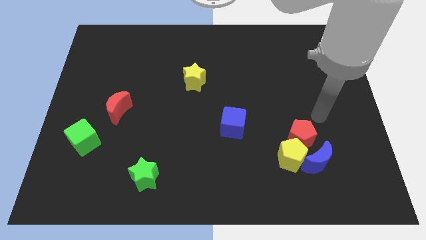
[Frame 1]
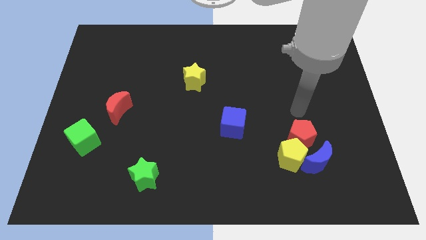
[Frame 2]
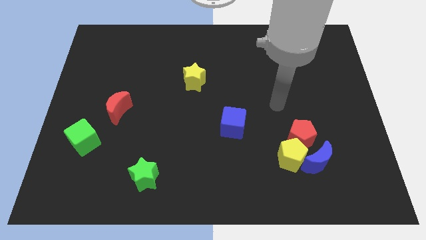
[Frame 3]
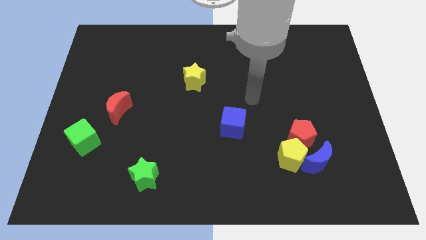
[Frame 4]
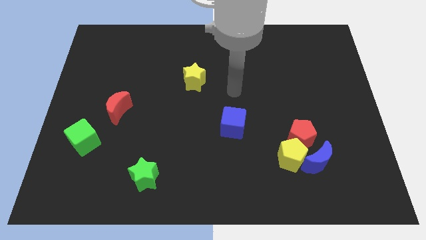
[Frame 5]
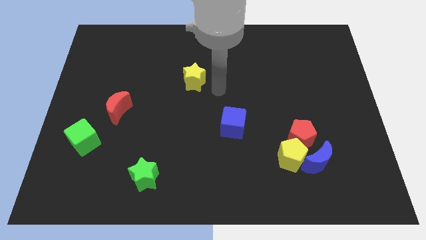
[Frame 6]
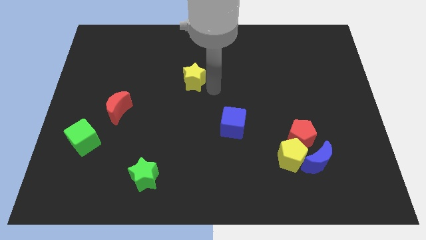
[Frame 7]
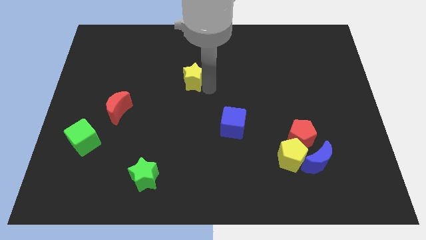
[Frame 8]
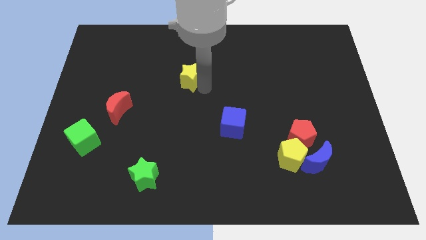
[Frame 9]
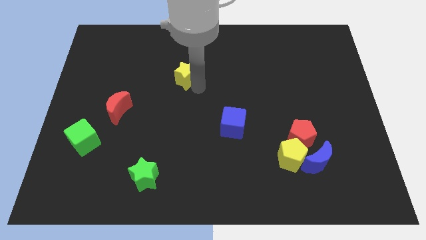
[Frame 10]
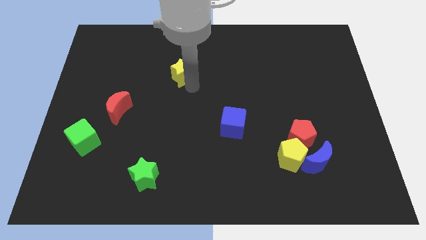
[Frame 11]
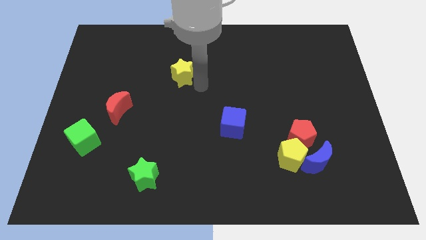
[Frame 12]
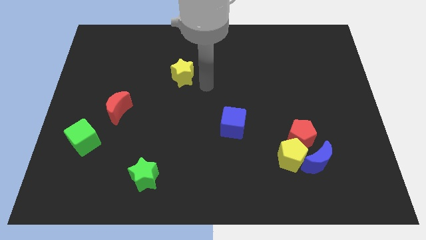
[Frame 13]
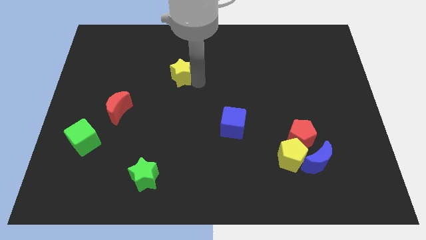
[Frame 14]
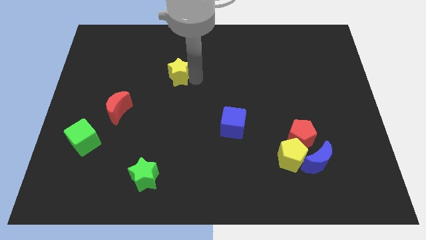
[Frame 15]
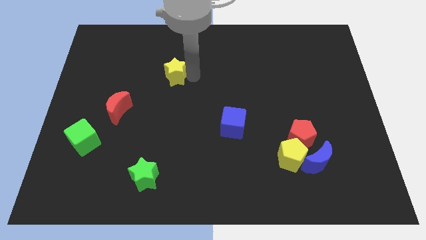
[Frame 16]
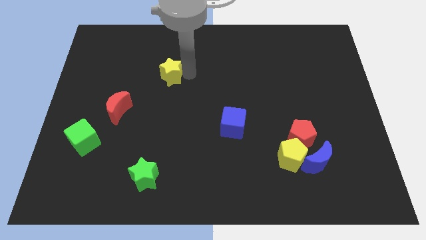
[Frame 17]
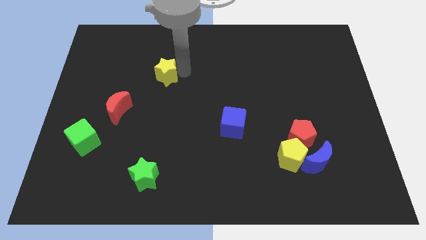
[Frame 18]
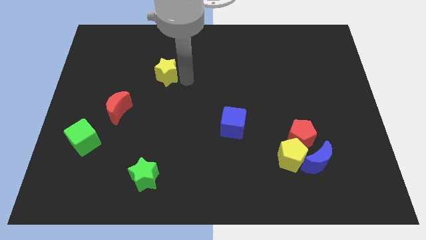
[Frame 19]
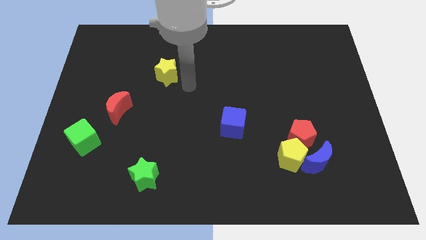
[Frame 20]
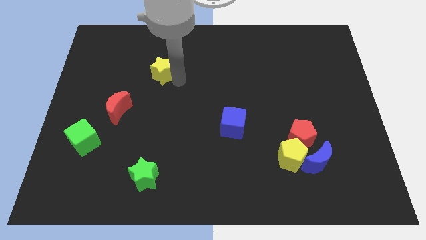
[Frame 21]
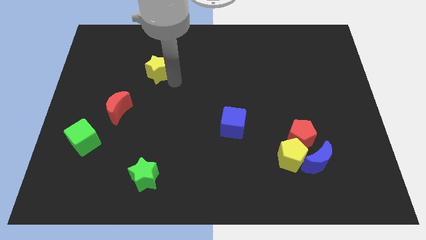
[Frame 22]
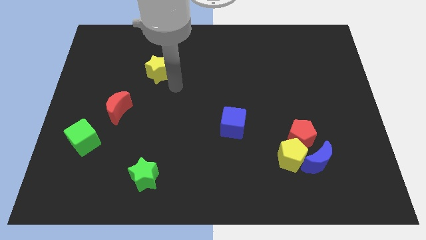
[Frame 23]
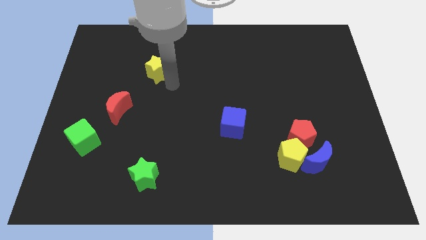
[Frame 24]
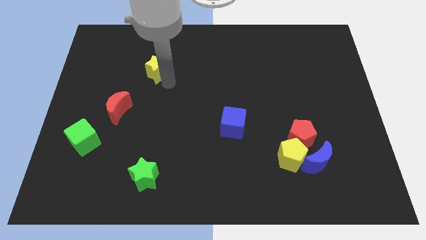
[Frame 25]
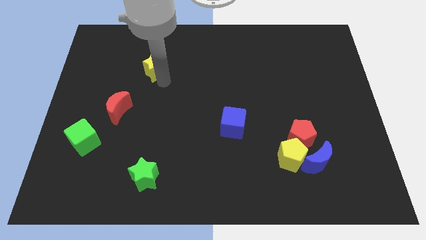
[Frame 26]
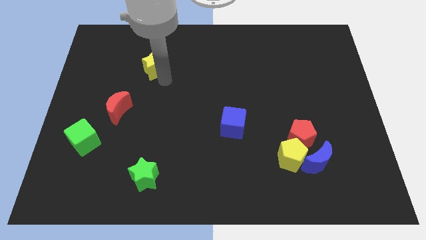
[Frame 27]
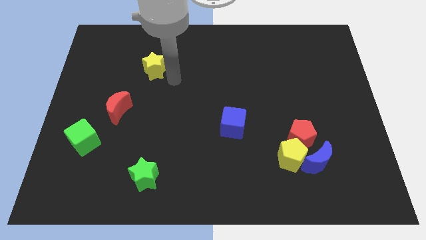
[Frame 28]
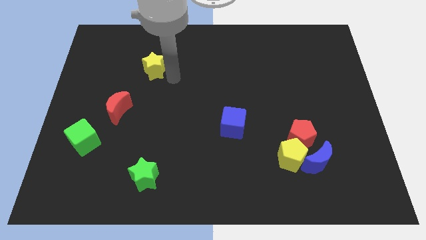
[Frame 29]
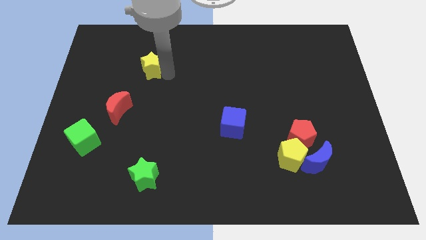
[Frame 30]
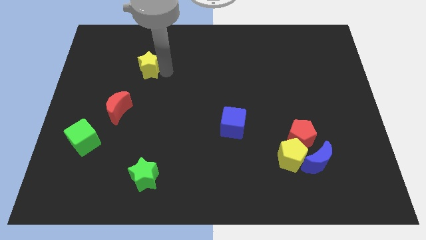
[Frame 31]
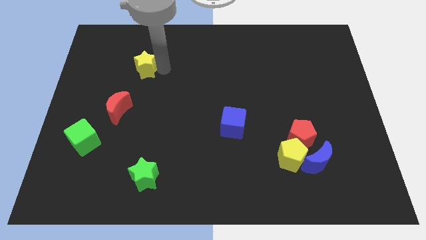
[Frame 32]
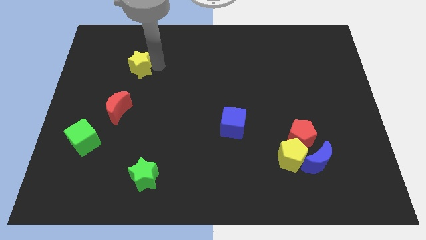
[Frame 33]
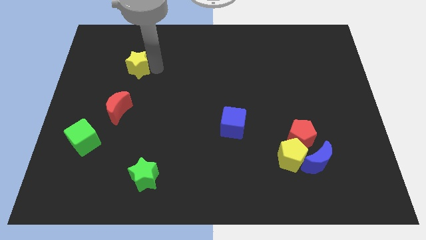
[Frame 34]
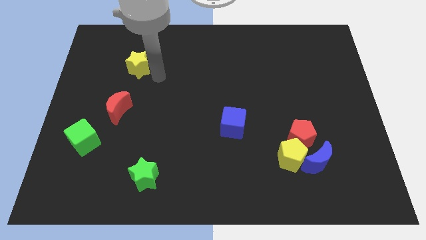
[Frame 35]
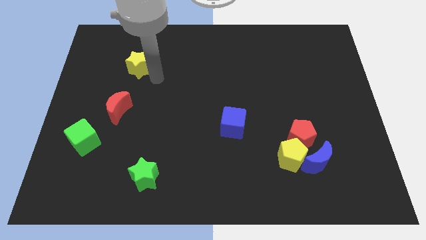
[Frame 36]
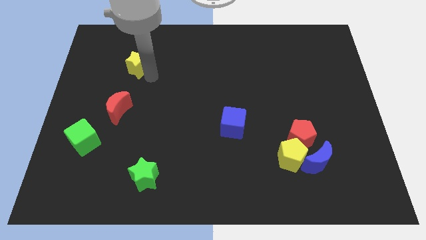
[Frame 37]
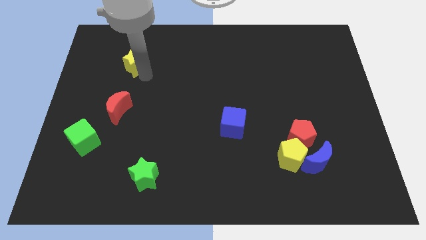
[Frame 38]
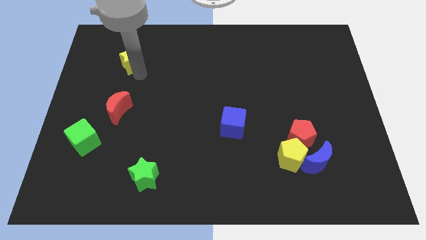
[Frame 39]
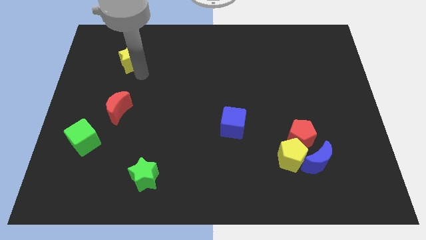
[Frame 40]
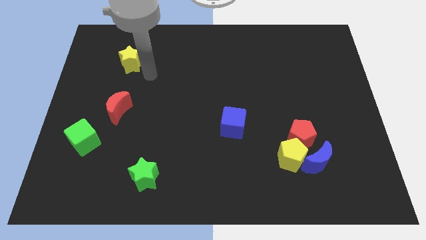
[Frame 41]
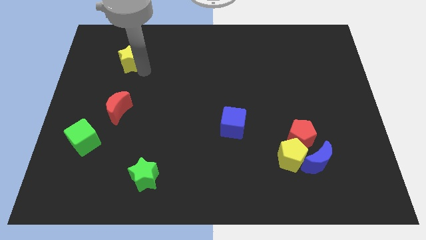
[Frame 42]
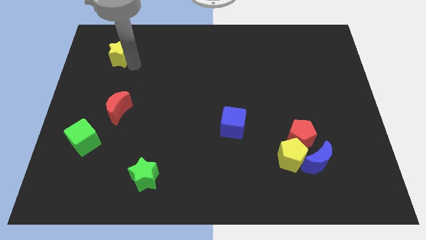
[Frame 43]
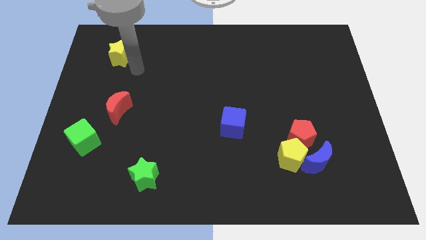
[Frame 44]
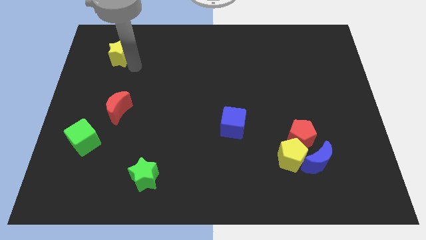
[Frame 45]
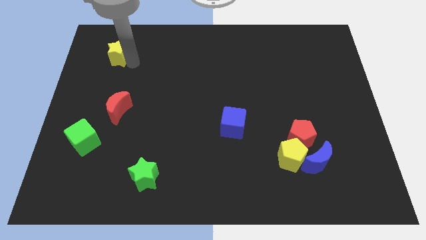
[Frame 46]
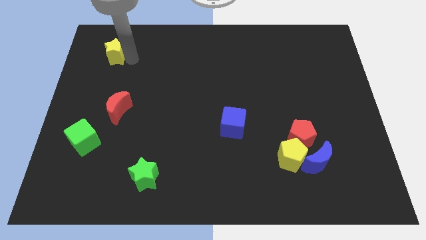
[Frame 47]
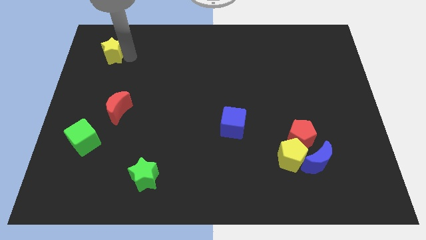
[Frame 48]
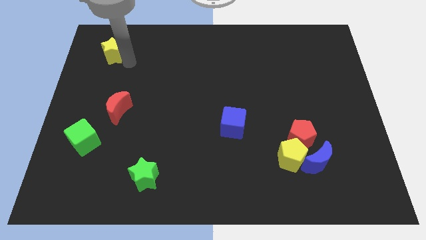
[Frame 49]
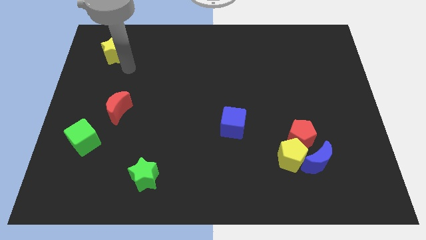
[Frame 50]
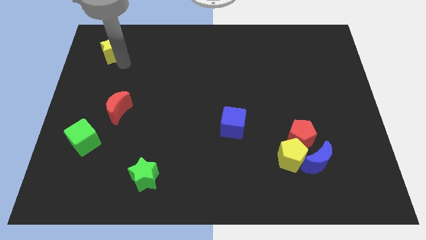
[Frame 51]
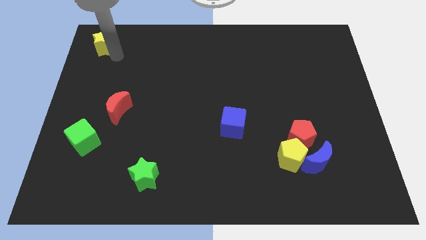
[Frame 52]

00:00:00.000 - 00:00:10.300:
move the yellow star to the top left

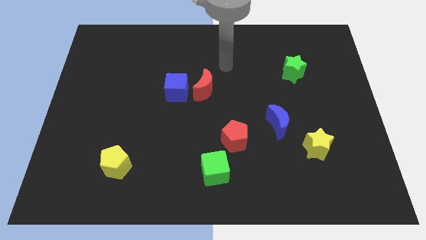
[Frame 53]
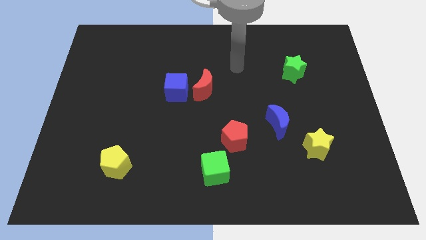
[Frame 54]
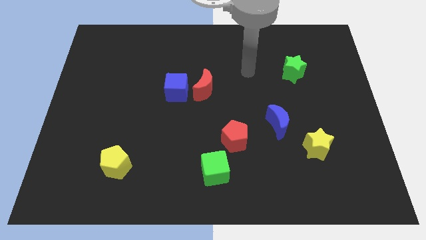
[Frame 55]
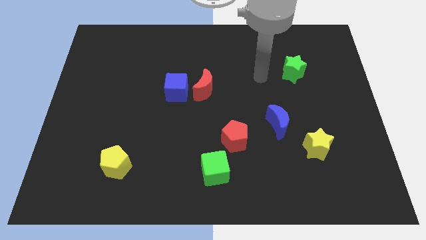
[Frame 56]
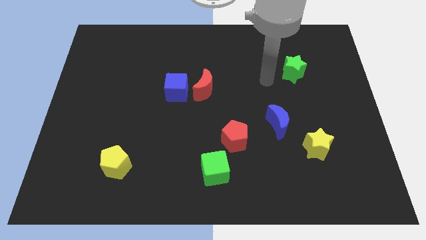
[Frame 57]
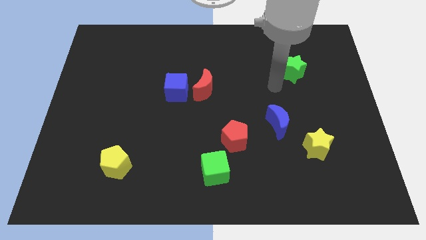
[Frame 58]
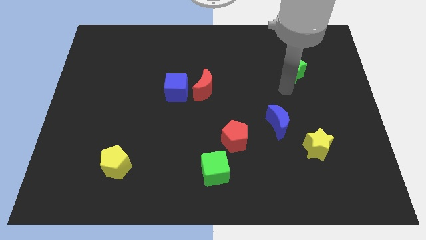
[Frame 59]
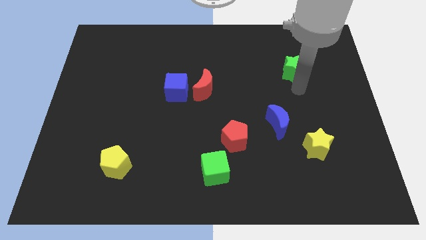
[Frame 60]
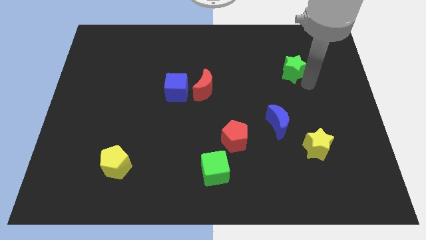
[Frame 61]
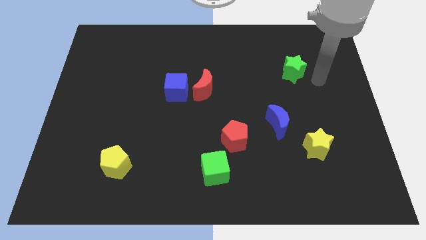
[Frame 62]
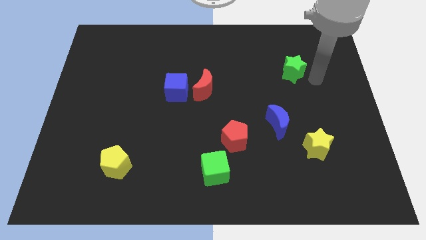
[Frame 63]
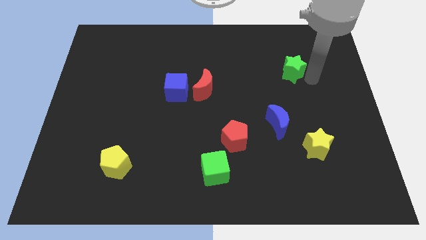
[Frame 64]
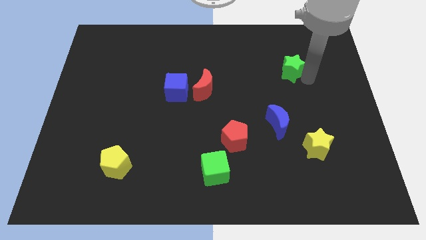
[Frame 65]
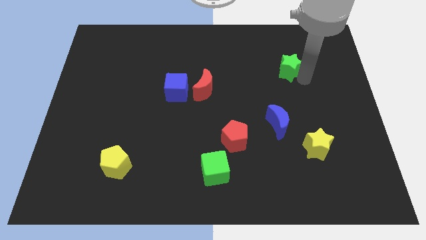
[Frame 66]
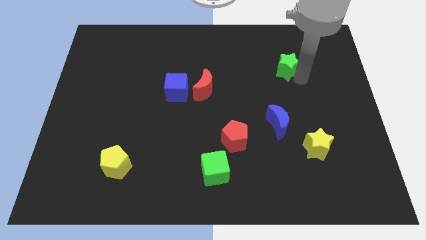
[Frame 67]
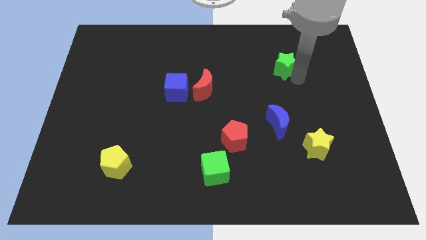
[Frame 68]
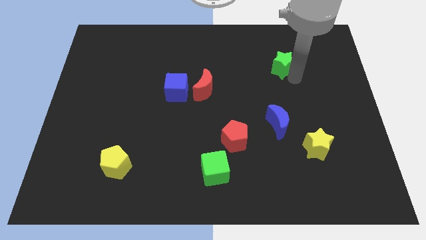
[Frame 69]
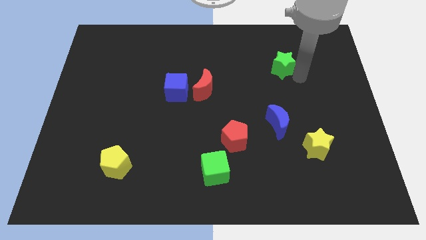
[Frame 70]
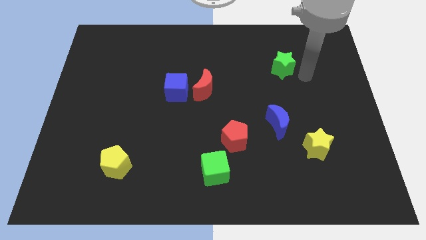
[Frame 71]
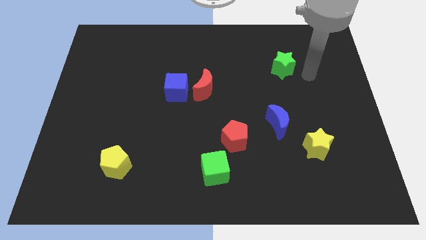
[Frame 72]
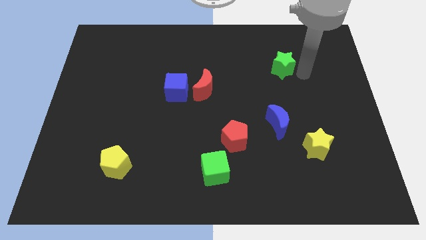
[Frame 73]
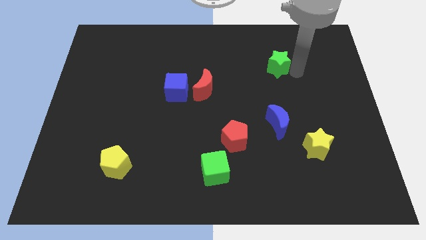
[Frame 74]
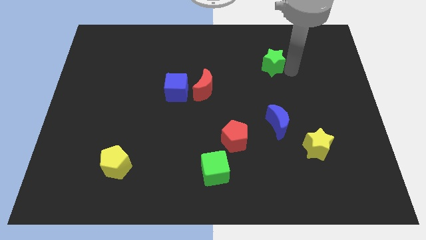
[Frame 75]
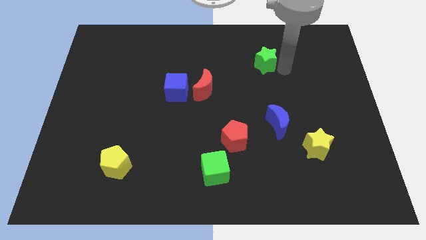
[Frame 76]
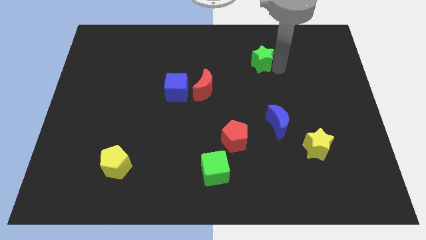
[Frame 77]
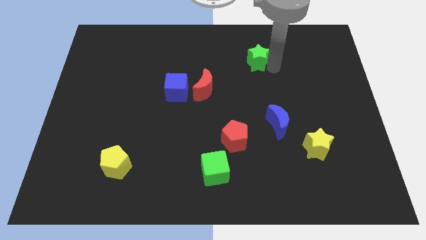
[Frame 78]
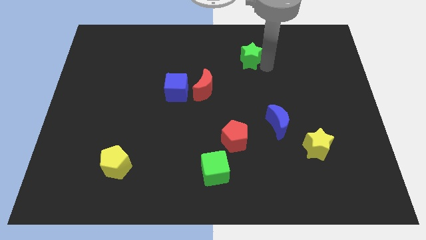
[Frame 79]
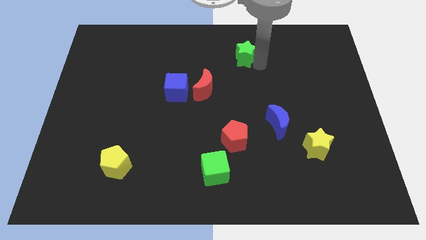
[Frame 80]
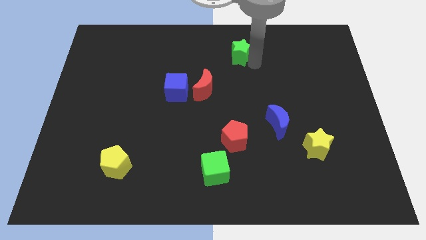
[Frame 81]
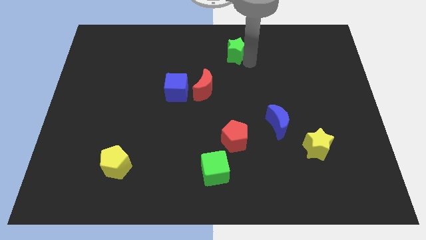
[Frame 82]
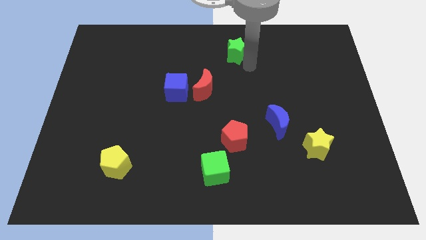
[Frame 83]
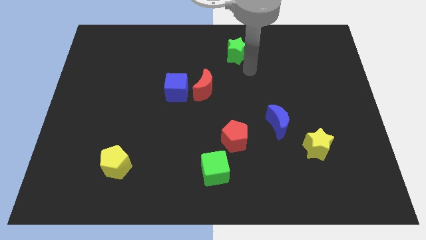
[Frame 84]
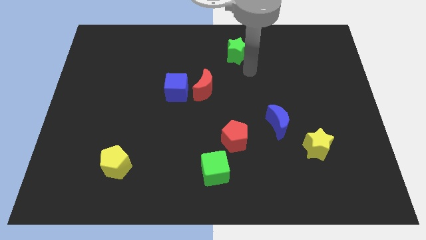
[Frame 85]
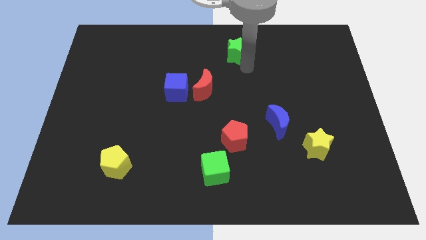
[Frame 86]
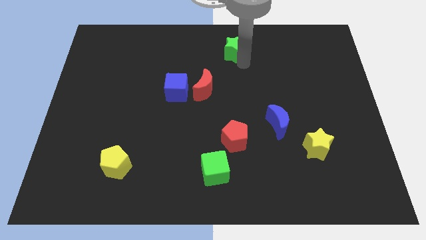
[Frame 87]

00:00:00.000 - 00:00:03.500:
push the green star to the top
